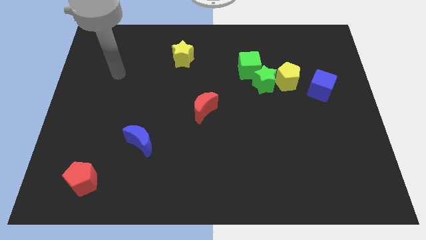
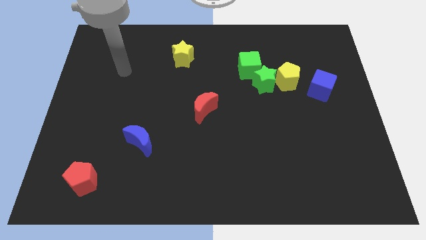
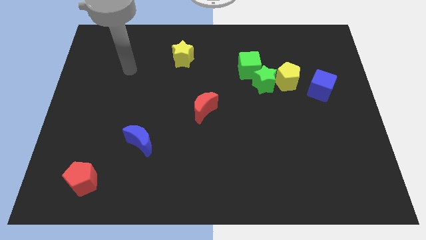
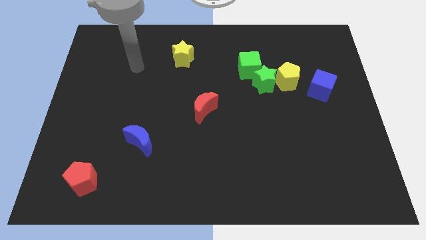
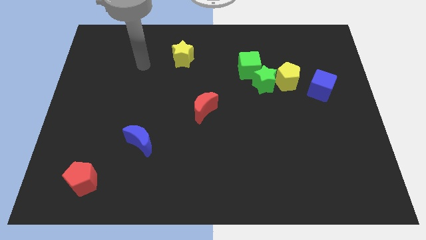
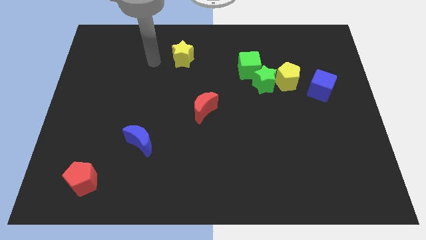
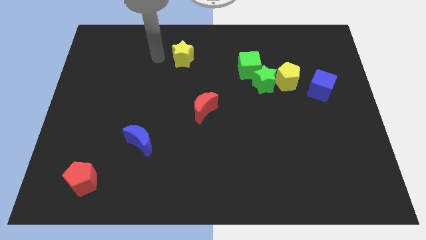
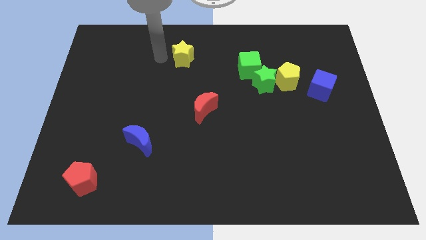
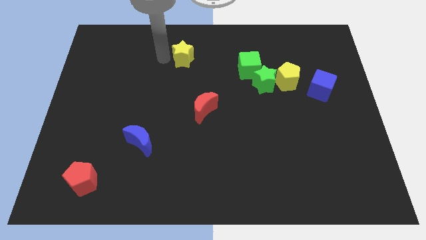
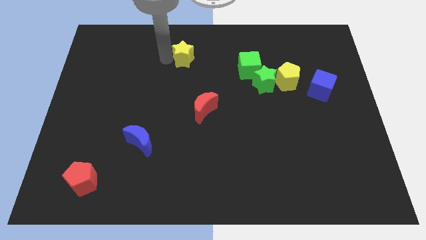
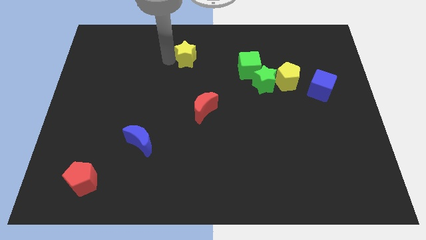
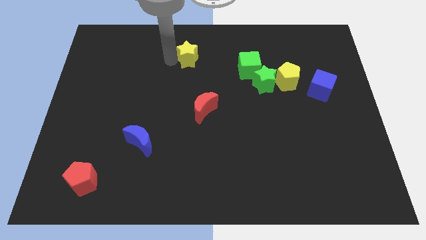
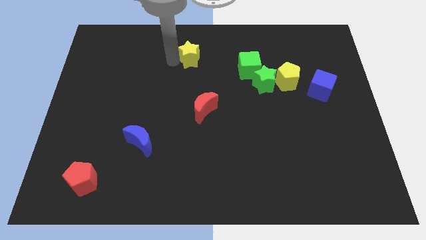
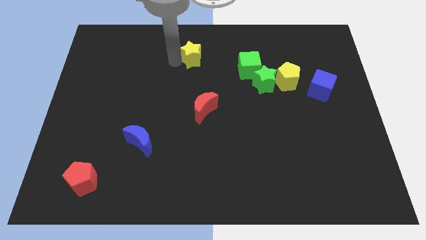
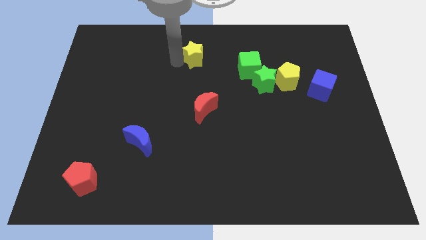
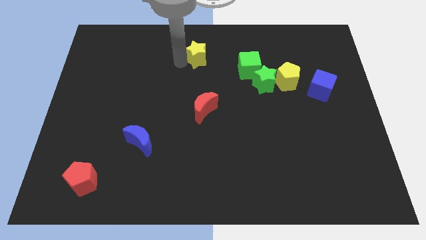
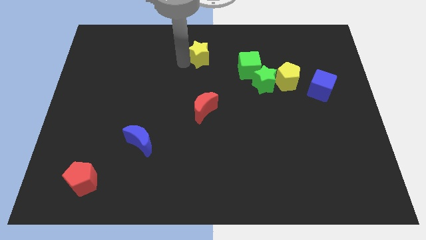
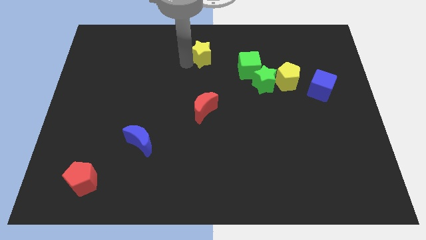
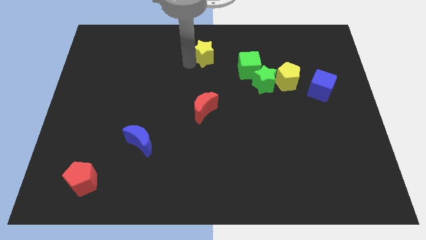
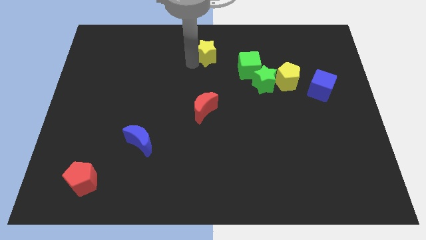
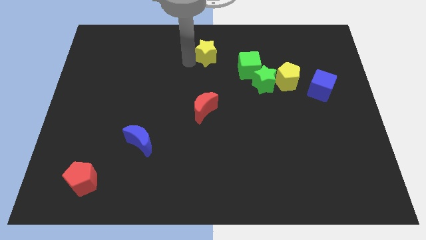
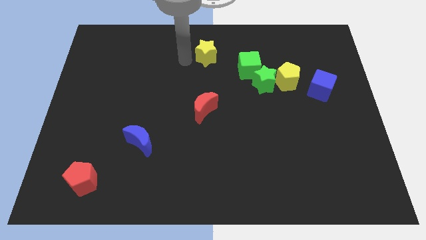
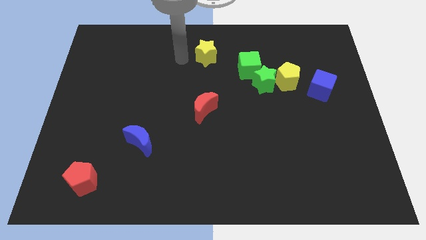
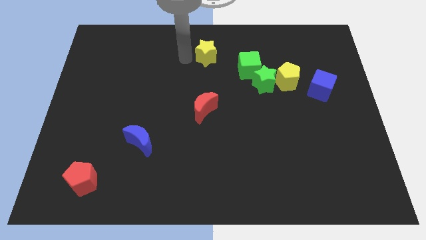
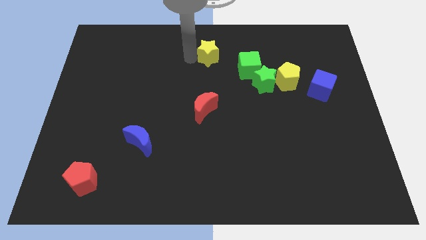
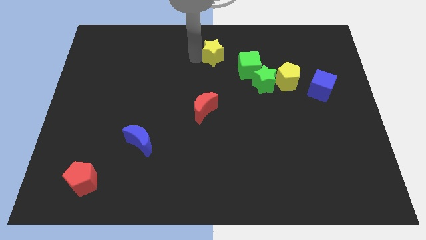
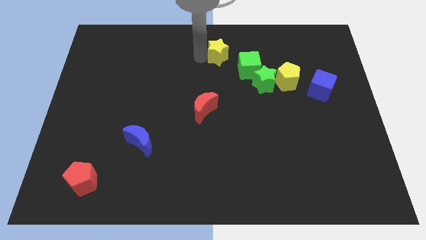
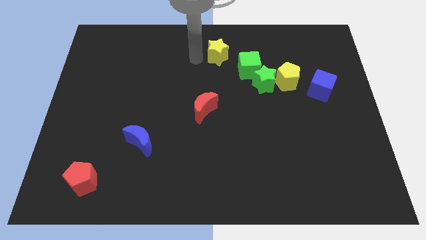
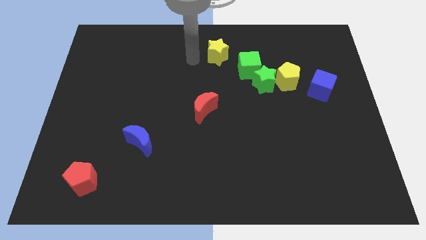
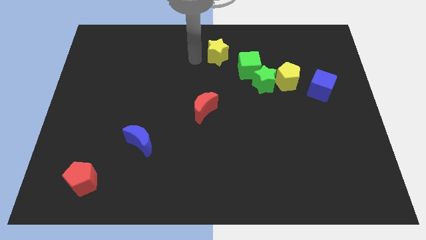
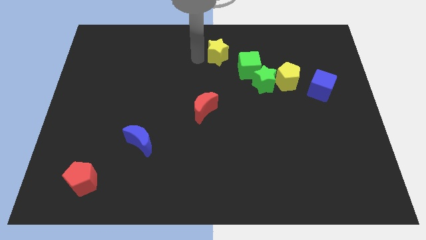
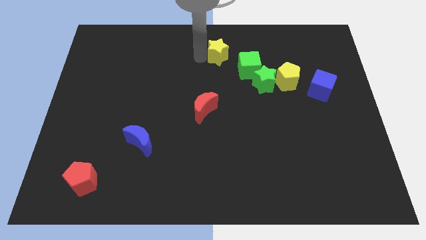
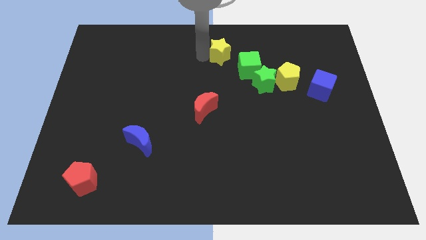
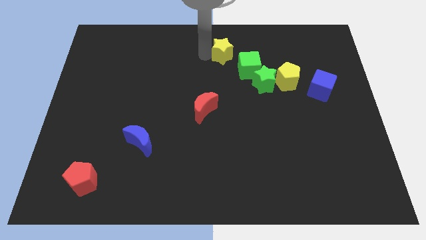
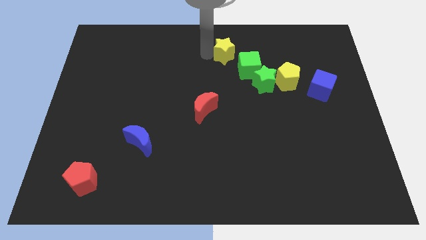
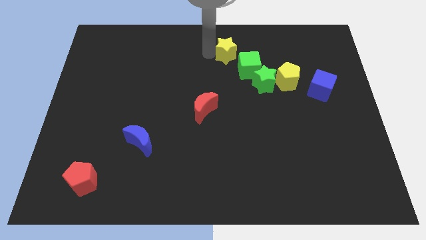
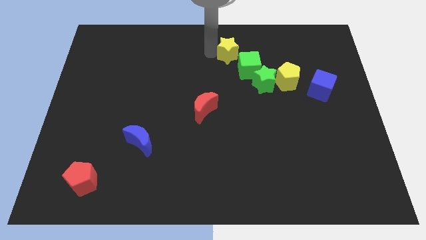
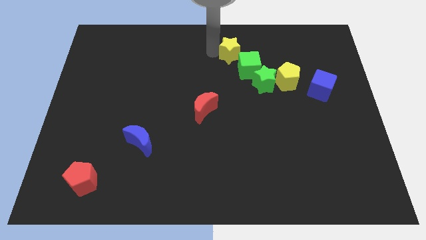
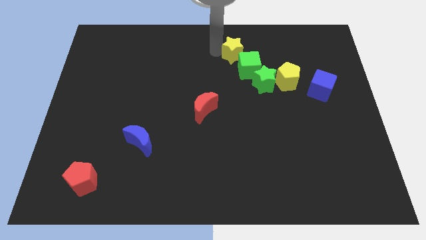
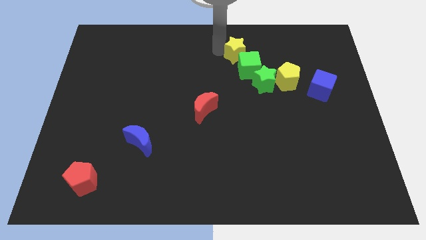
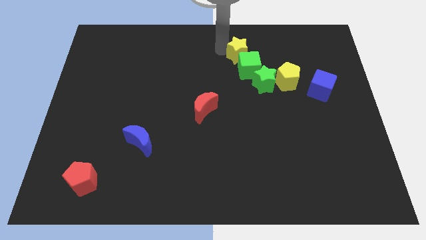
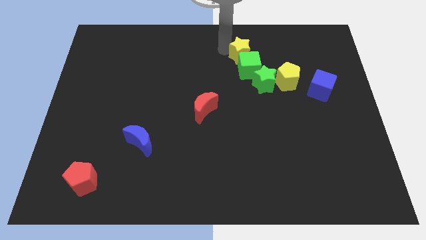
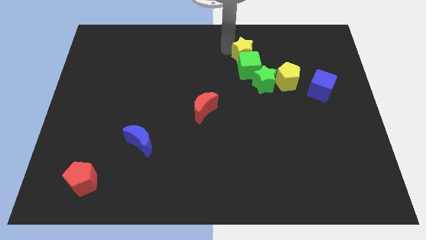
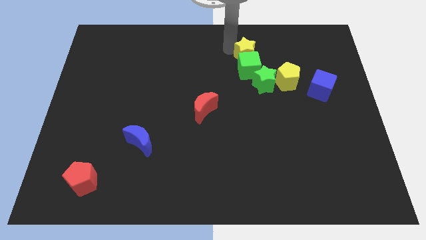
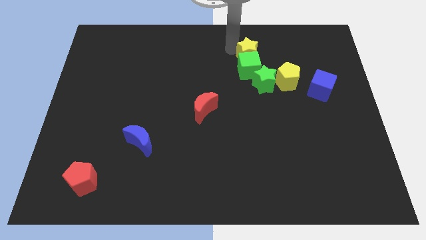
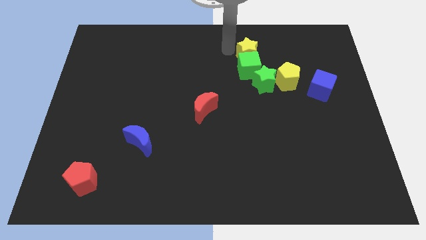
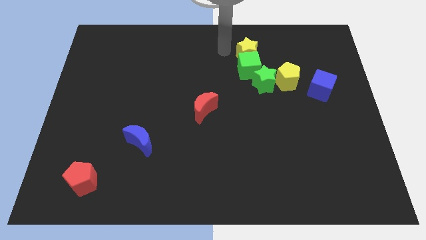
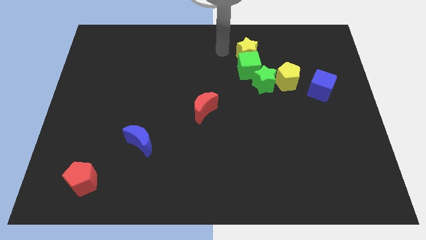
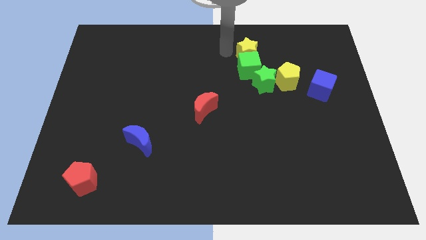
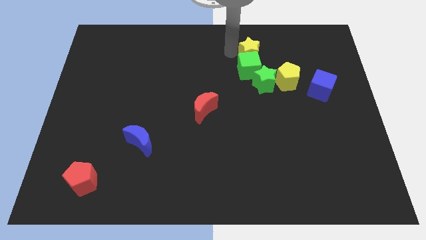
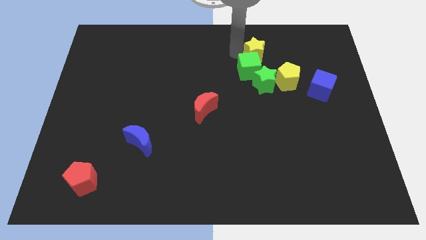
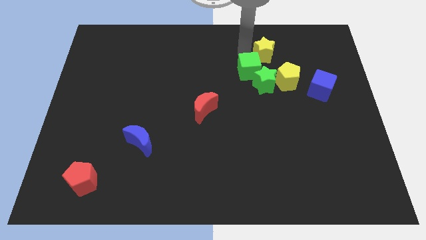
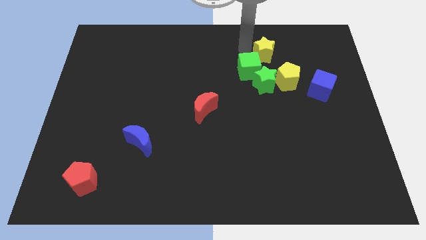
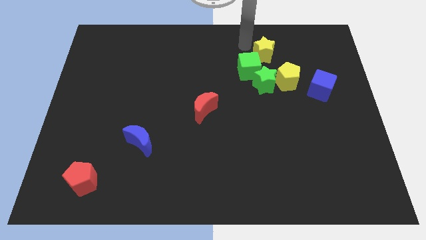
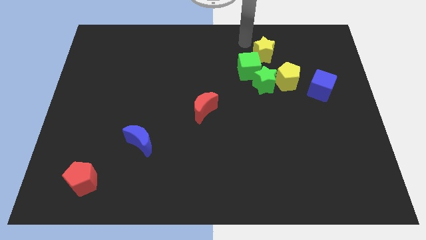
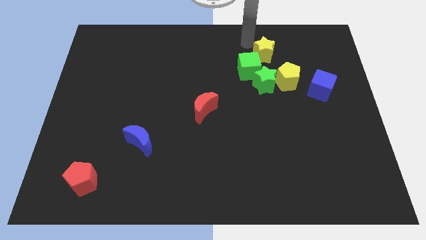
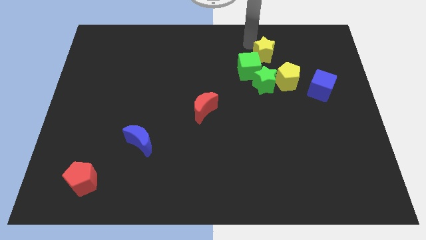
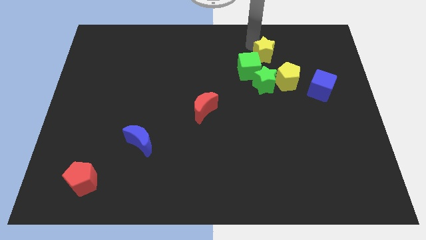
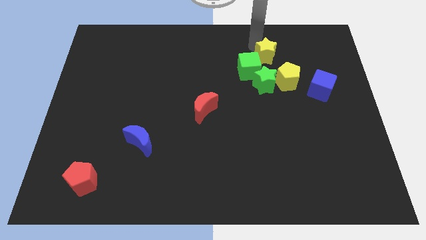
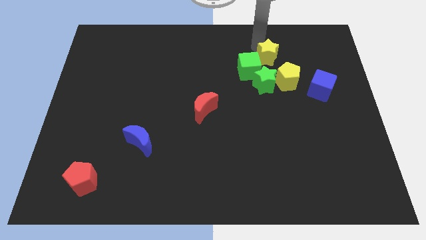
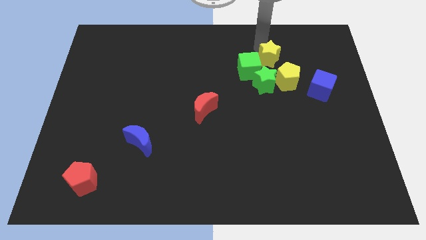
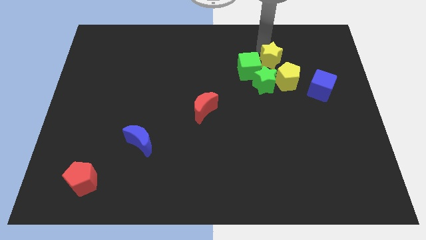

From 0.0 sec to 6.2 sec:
slide the yellow star to the top right side of the green star
